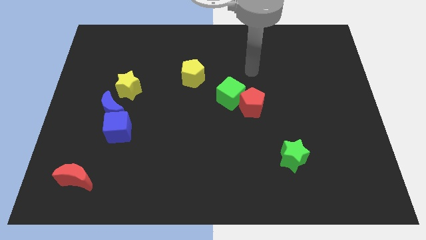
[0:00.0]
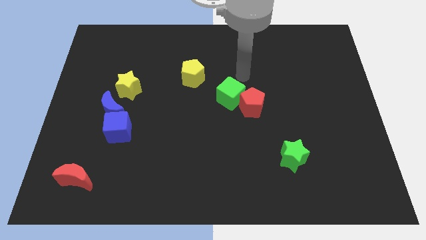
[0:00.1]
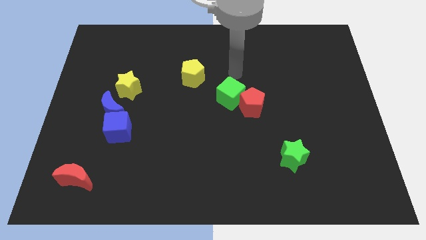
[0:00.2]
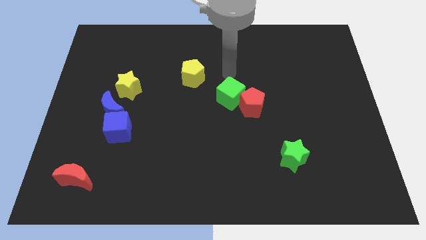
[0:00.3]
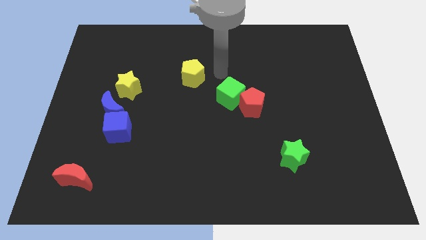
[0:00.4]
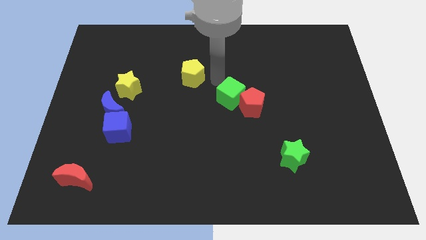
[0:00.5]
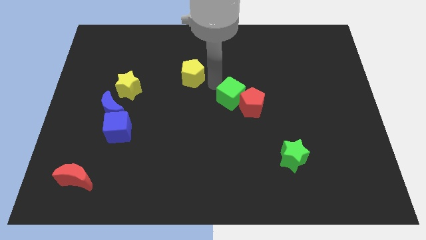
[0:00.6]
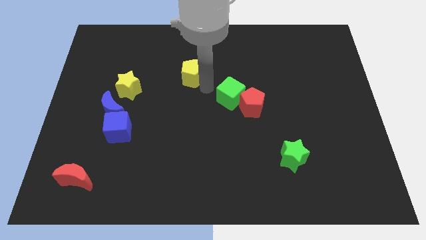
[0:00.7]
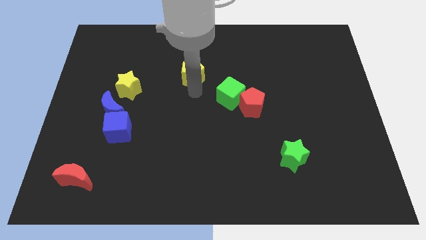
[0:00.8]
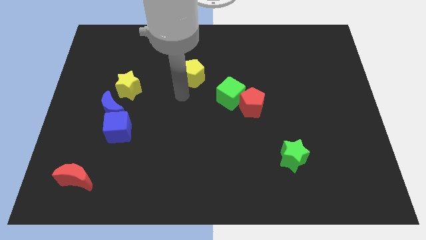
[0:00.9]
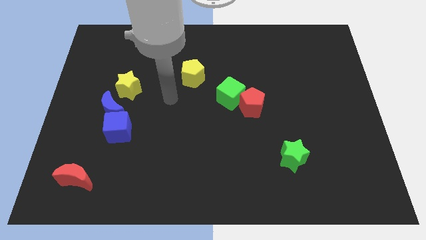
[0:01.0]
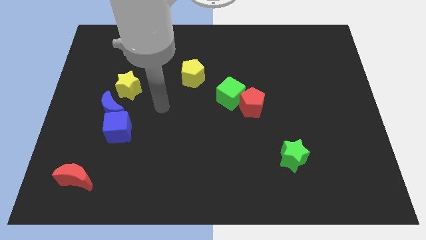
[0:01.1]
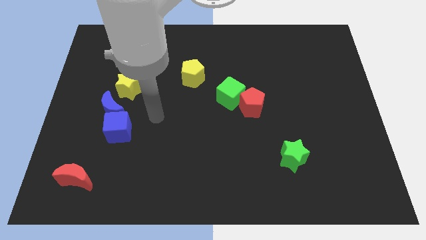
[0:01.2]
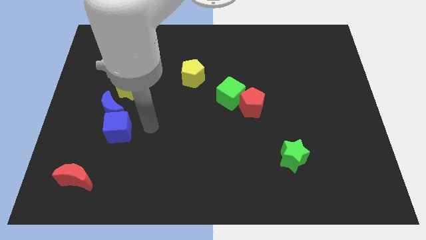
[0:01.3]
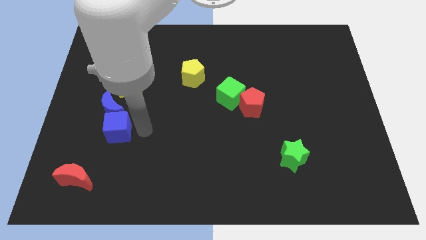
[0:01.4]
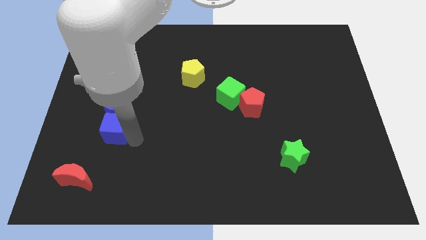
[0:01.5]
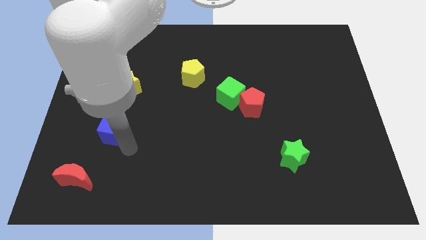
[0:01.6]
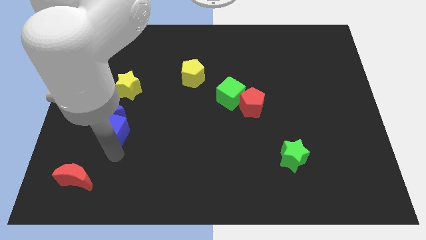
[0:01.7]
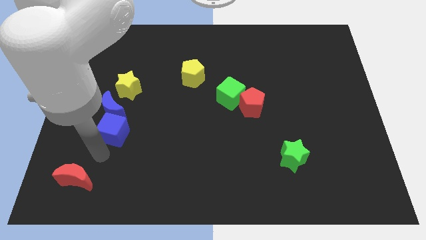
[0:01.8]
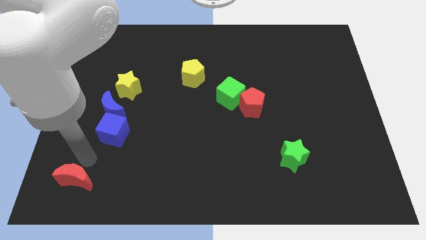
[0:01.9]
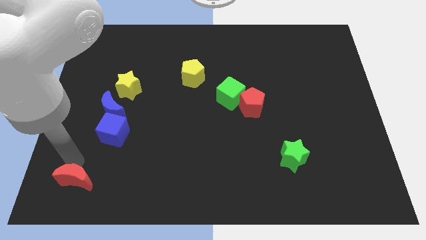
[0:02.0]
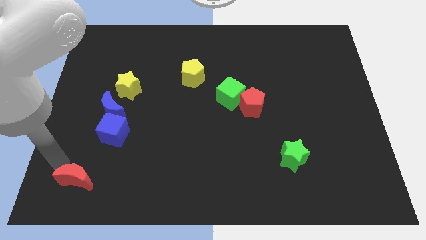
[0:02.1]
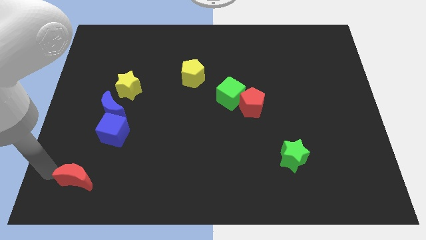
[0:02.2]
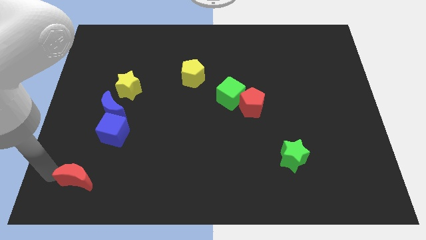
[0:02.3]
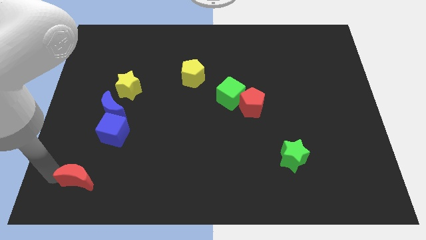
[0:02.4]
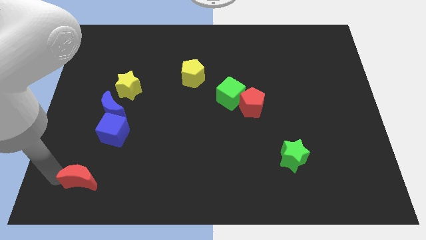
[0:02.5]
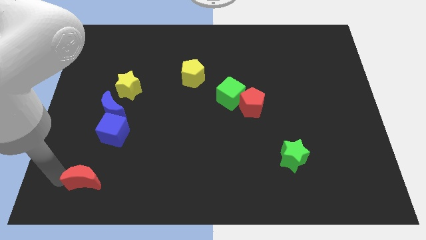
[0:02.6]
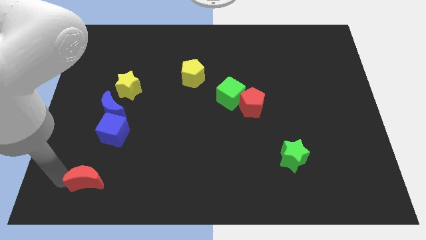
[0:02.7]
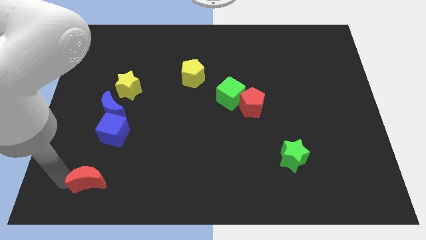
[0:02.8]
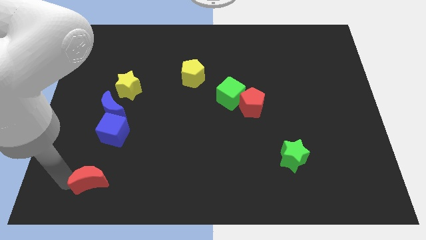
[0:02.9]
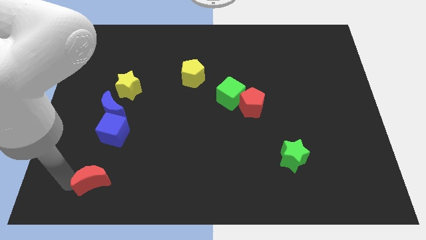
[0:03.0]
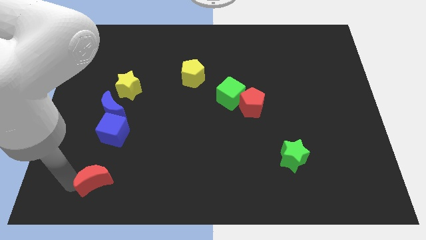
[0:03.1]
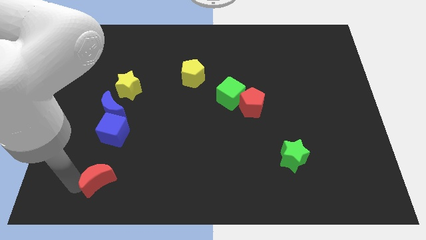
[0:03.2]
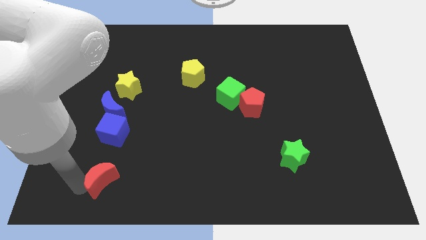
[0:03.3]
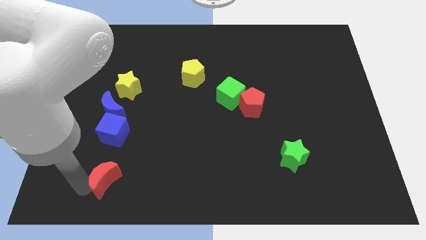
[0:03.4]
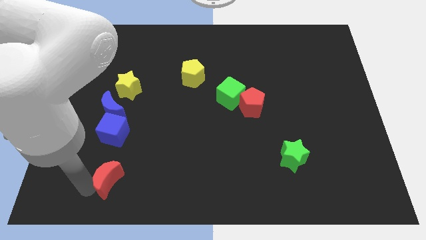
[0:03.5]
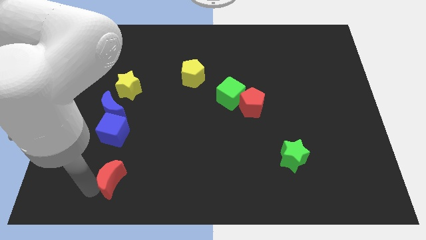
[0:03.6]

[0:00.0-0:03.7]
push the red moon a bit right

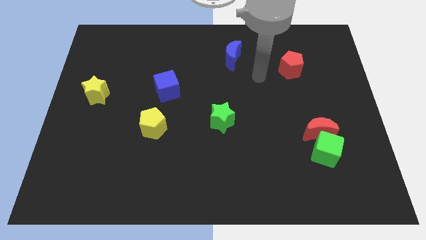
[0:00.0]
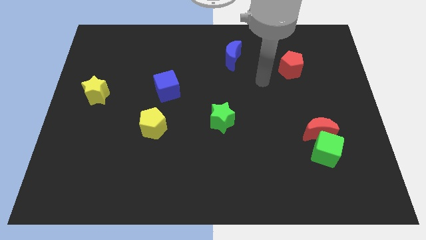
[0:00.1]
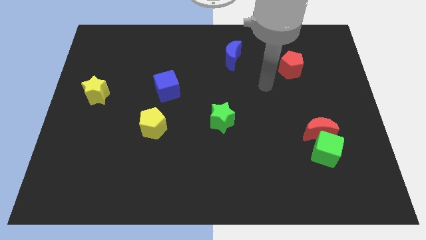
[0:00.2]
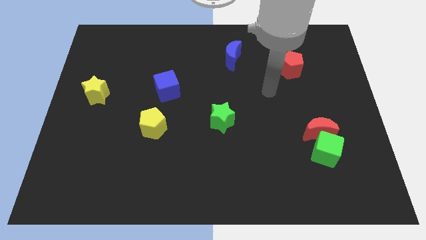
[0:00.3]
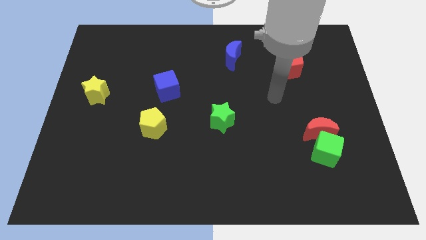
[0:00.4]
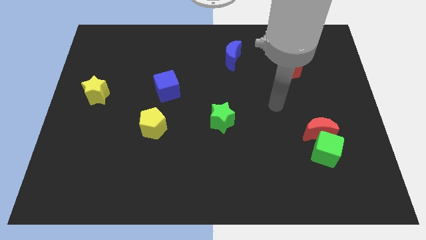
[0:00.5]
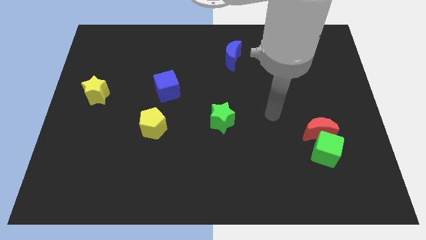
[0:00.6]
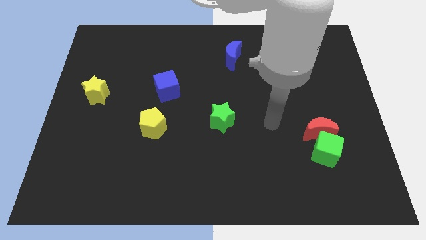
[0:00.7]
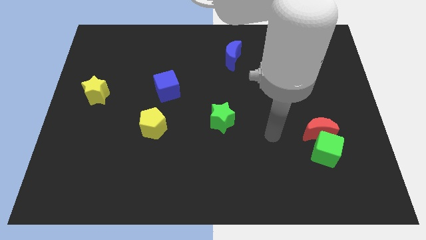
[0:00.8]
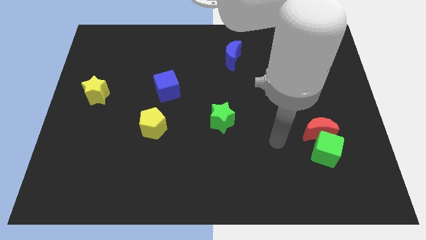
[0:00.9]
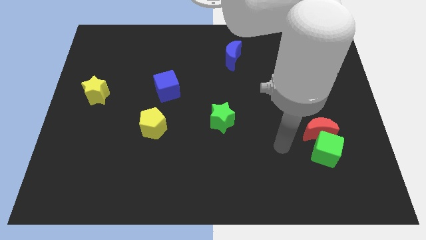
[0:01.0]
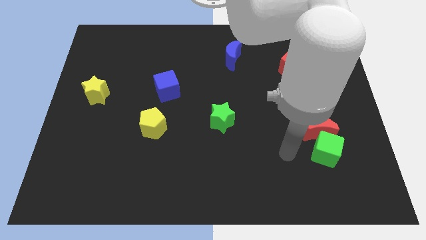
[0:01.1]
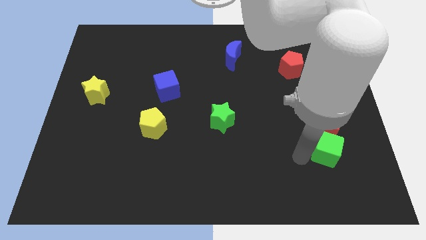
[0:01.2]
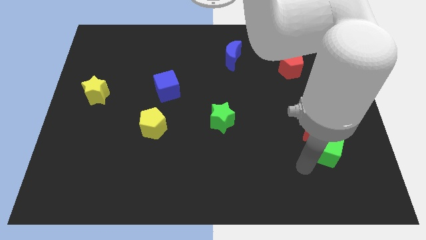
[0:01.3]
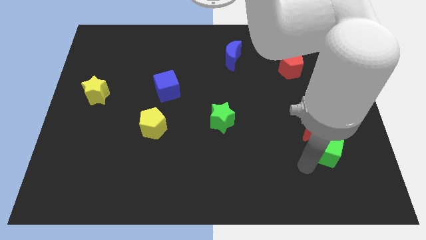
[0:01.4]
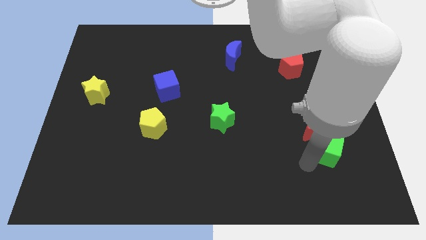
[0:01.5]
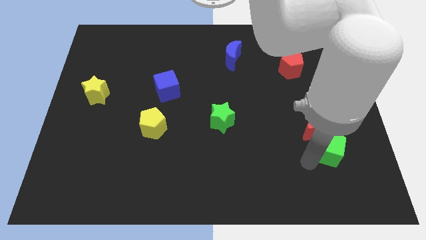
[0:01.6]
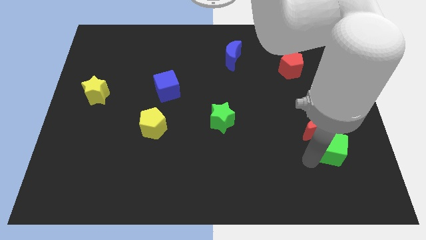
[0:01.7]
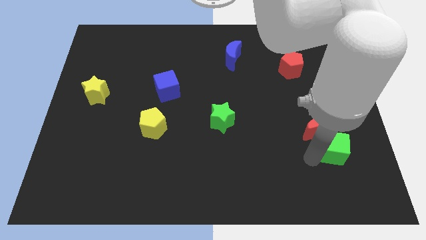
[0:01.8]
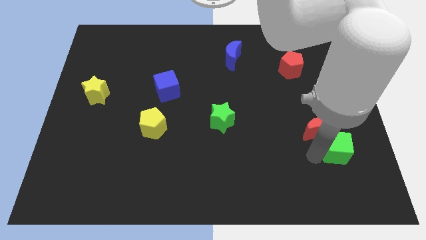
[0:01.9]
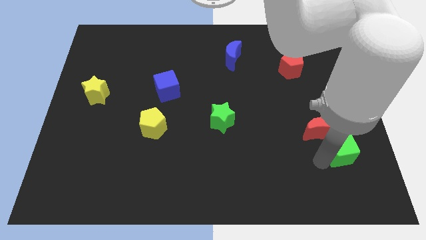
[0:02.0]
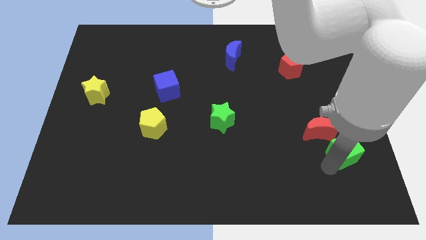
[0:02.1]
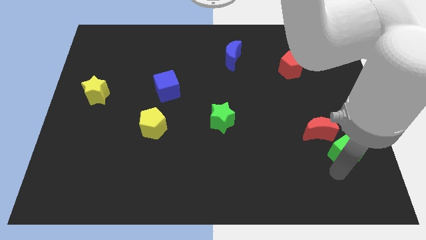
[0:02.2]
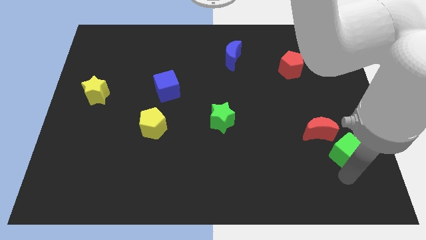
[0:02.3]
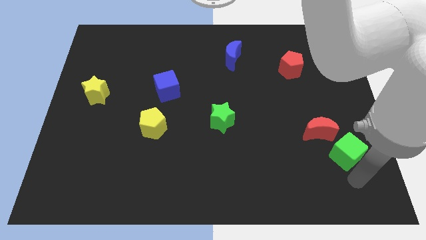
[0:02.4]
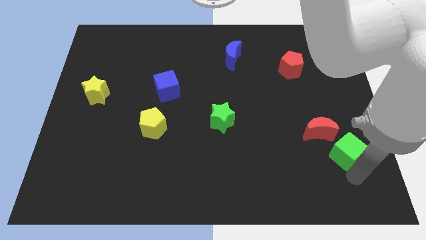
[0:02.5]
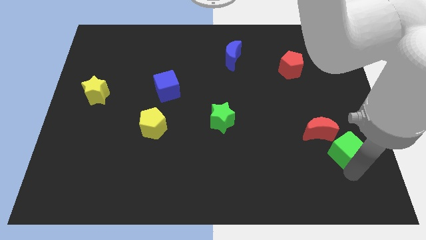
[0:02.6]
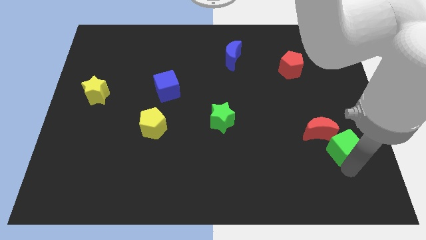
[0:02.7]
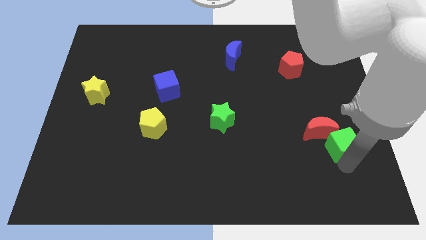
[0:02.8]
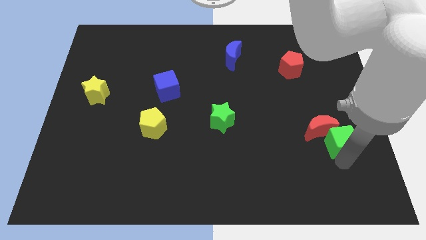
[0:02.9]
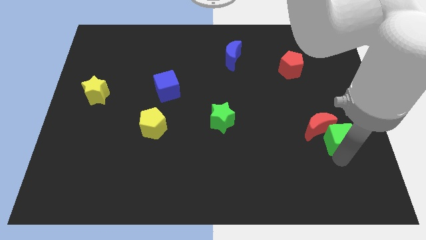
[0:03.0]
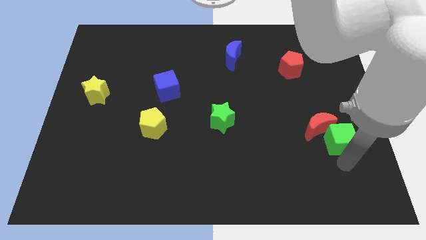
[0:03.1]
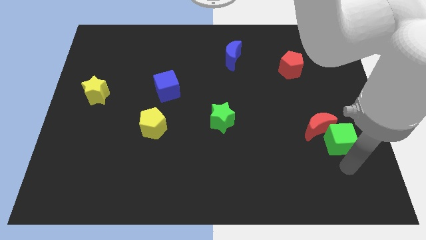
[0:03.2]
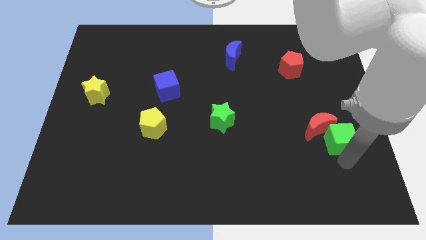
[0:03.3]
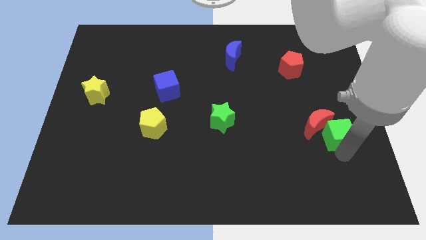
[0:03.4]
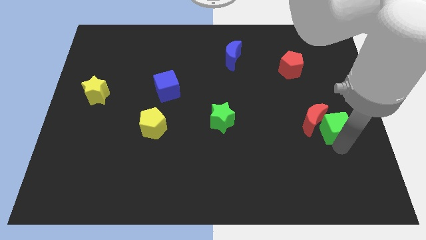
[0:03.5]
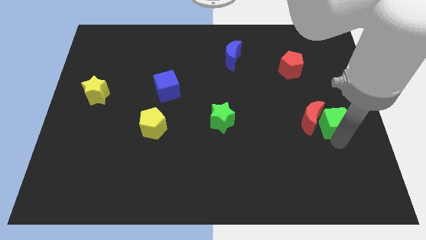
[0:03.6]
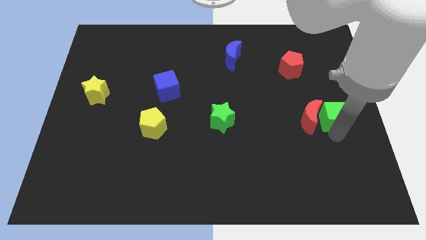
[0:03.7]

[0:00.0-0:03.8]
push the green cube a bit upwards

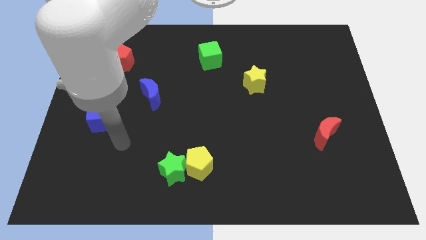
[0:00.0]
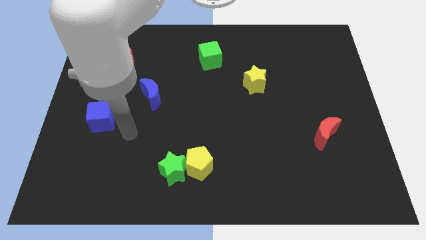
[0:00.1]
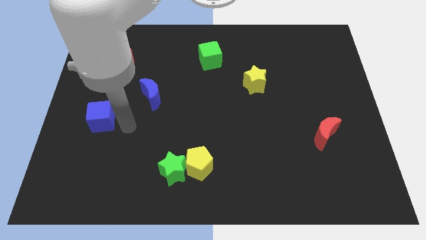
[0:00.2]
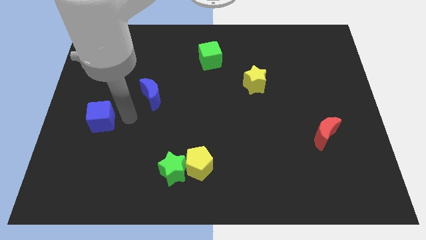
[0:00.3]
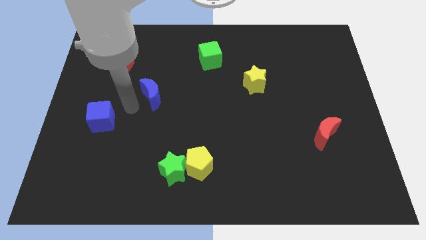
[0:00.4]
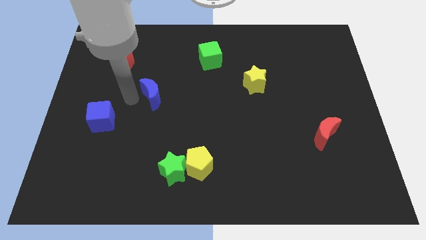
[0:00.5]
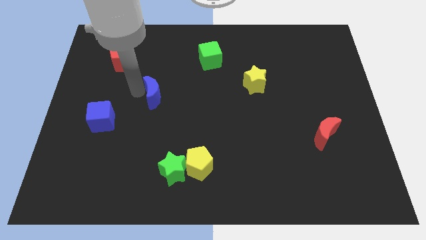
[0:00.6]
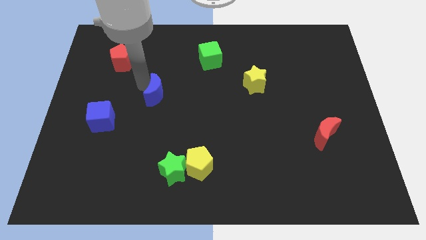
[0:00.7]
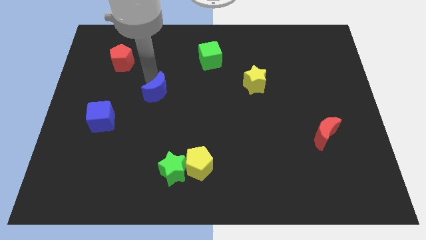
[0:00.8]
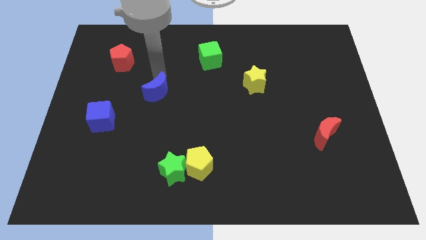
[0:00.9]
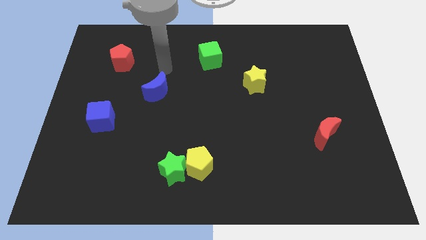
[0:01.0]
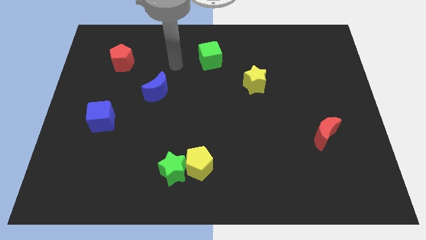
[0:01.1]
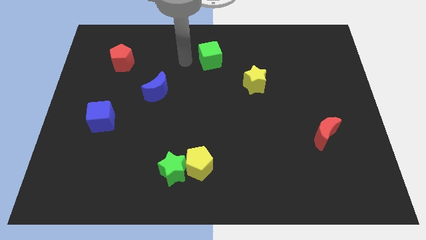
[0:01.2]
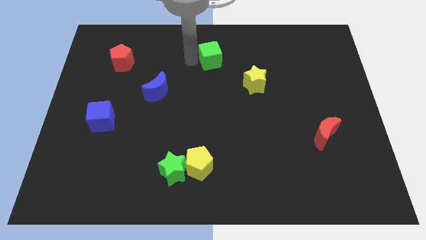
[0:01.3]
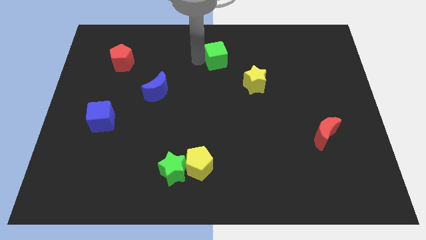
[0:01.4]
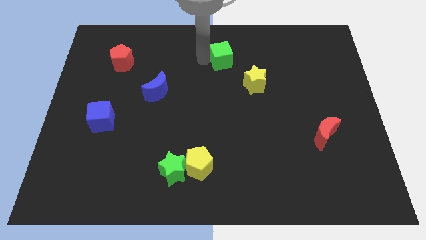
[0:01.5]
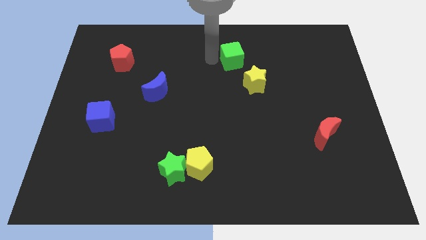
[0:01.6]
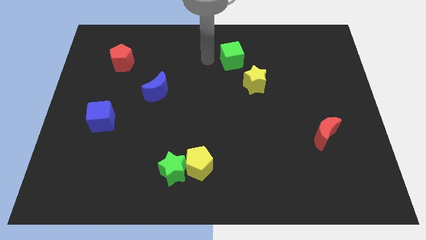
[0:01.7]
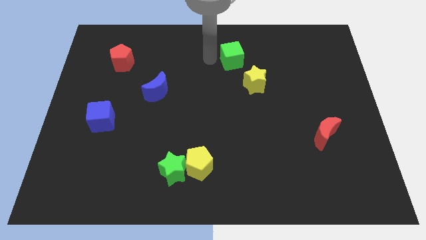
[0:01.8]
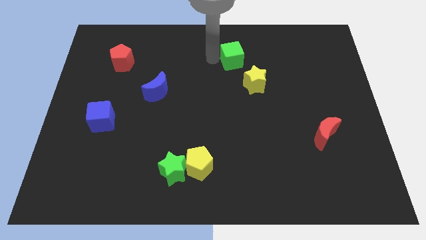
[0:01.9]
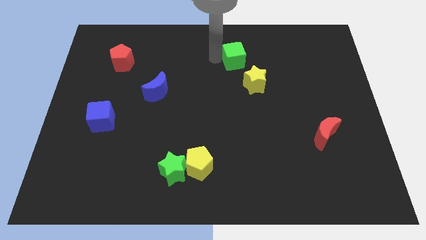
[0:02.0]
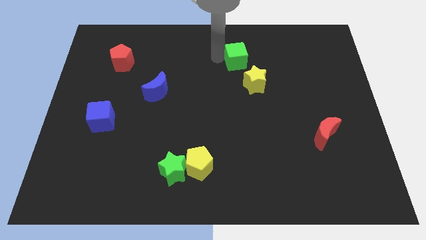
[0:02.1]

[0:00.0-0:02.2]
move the green cube a bit to the right
